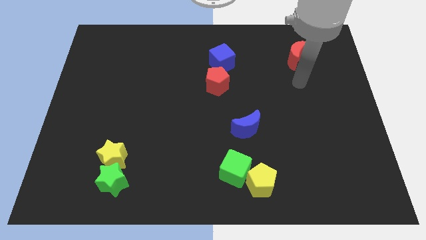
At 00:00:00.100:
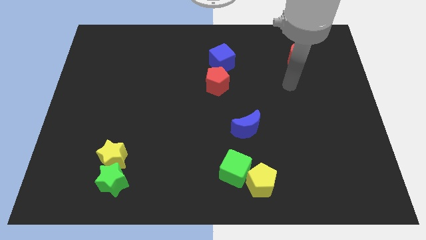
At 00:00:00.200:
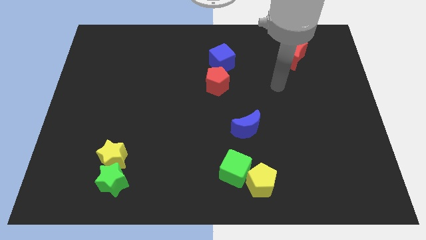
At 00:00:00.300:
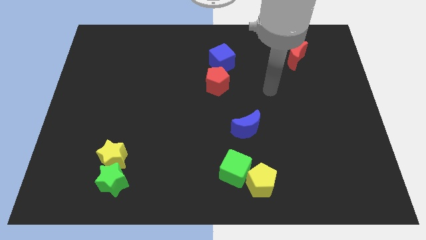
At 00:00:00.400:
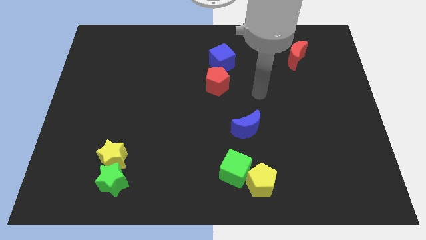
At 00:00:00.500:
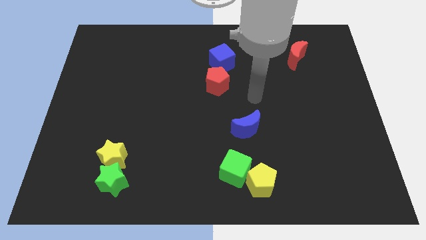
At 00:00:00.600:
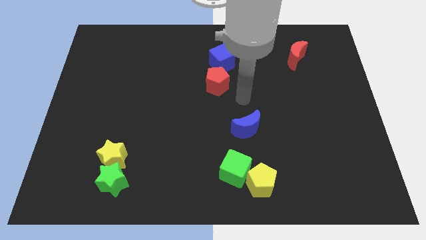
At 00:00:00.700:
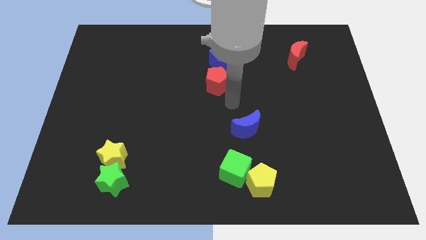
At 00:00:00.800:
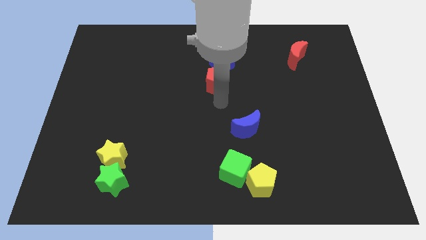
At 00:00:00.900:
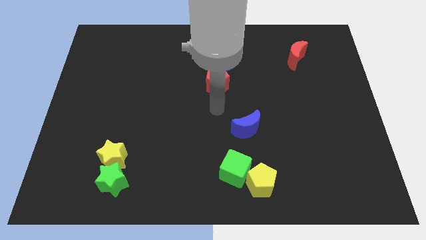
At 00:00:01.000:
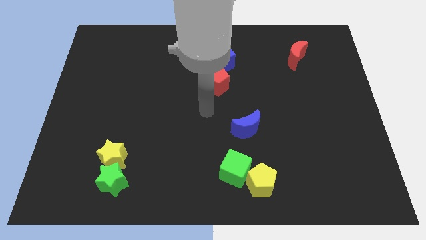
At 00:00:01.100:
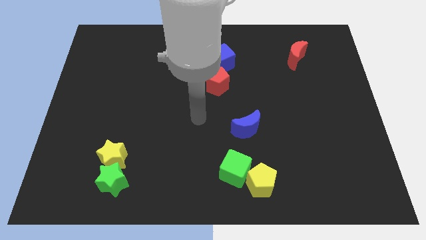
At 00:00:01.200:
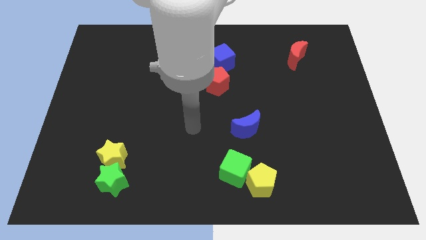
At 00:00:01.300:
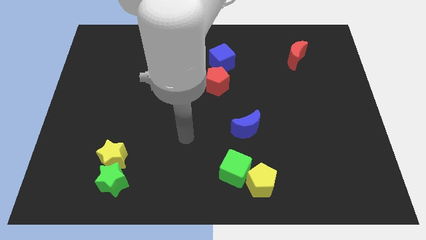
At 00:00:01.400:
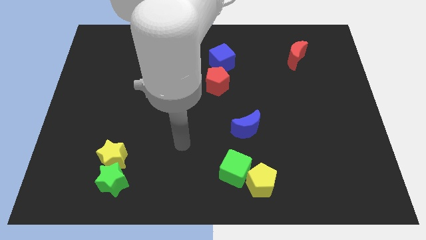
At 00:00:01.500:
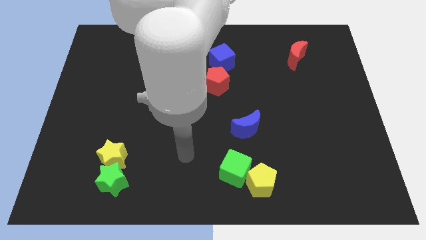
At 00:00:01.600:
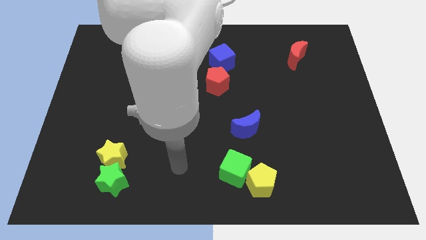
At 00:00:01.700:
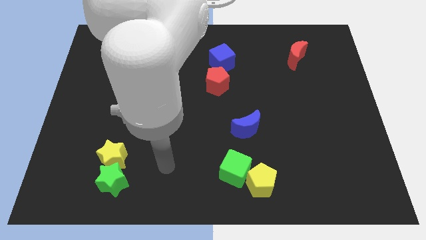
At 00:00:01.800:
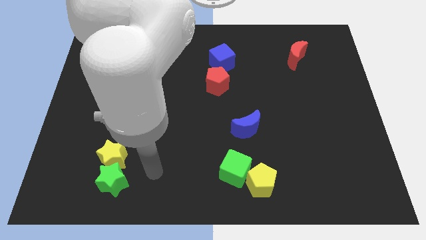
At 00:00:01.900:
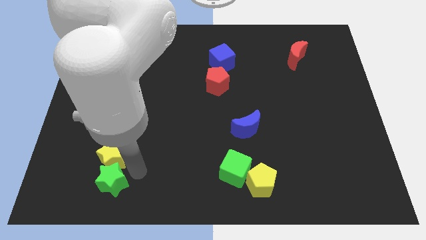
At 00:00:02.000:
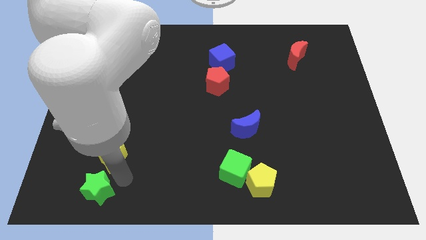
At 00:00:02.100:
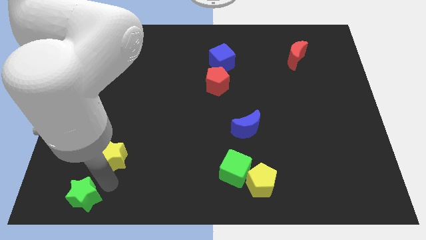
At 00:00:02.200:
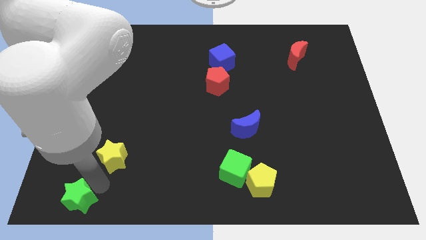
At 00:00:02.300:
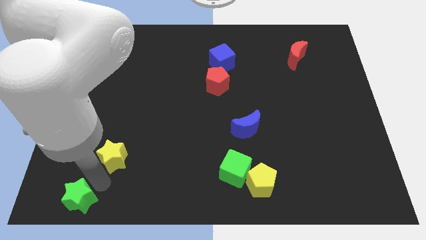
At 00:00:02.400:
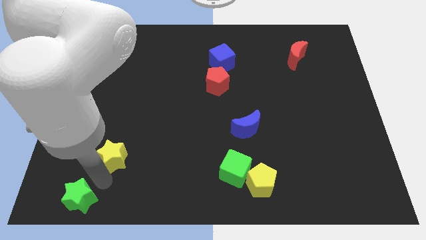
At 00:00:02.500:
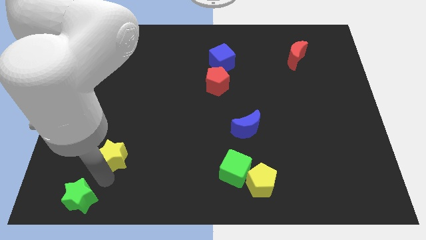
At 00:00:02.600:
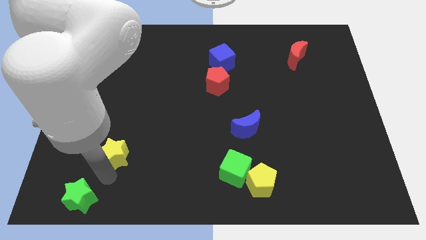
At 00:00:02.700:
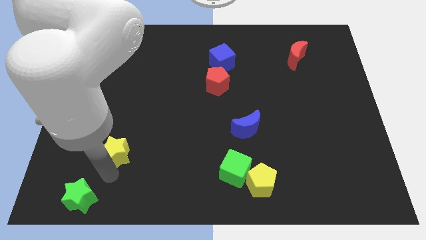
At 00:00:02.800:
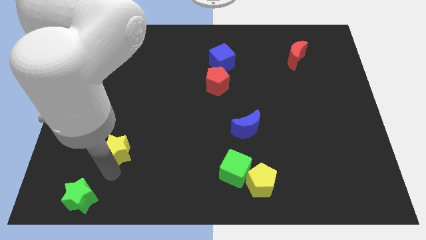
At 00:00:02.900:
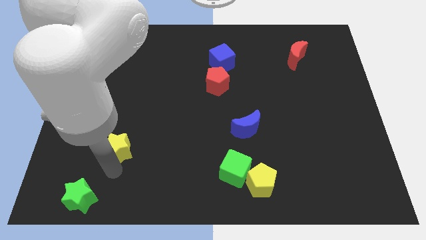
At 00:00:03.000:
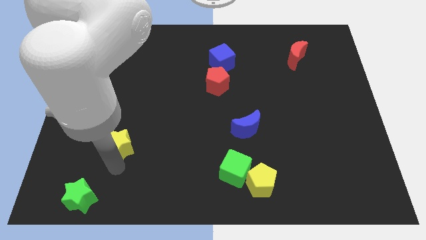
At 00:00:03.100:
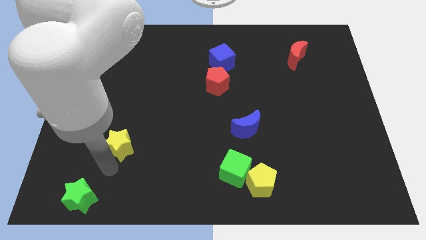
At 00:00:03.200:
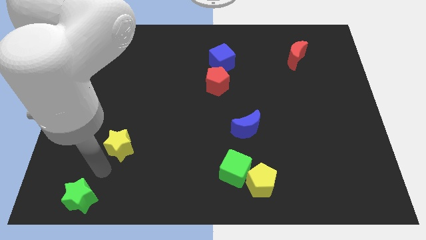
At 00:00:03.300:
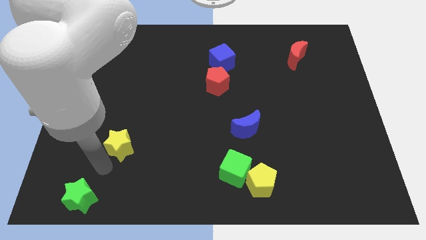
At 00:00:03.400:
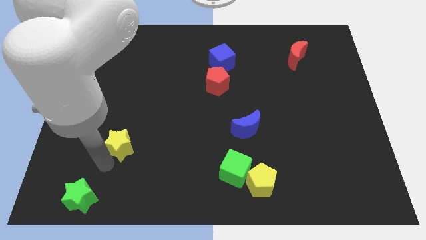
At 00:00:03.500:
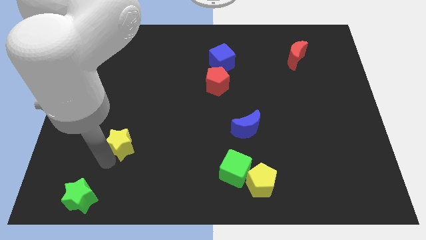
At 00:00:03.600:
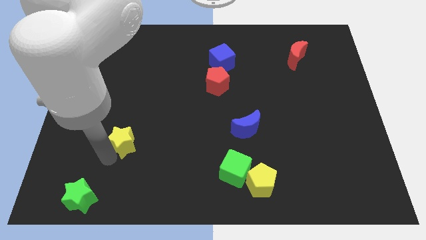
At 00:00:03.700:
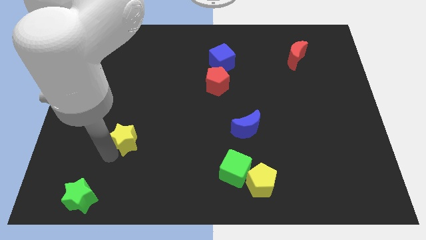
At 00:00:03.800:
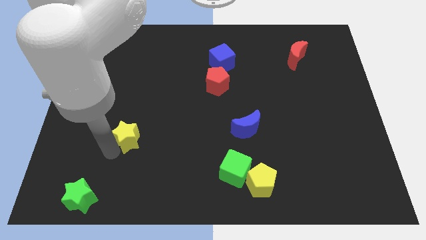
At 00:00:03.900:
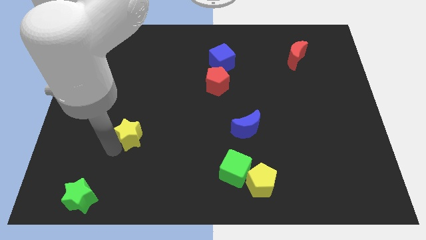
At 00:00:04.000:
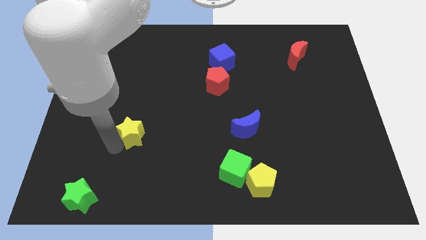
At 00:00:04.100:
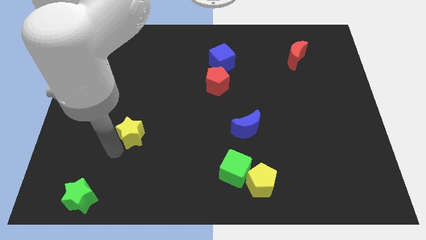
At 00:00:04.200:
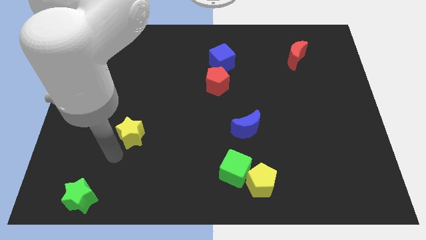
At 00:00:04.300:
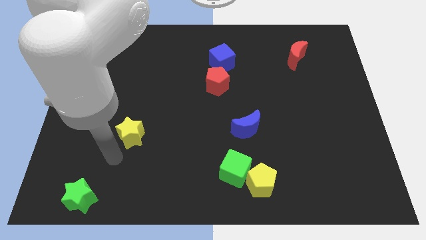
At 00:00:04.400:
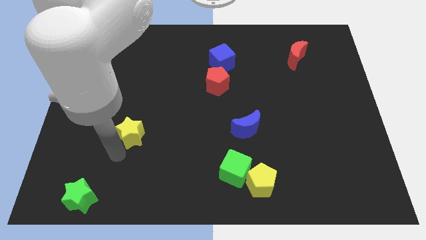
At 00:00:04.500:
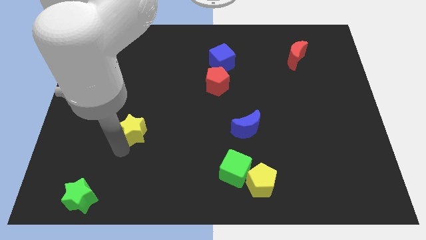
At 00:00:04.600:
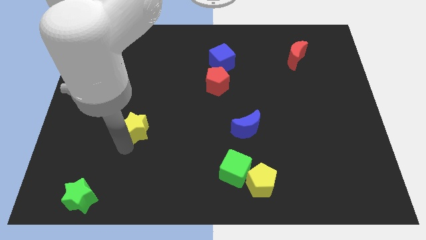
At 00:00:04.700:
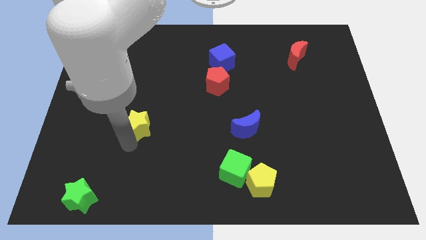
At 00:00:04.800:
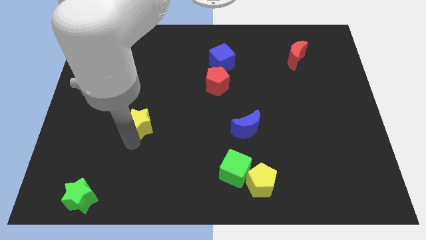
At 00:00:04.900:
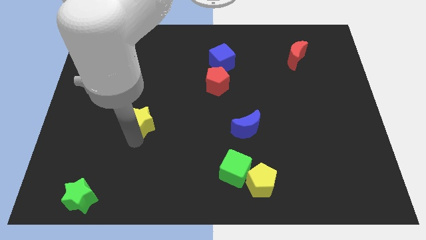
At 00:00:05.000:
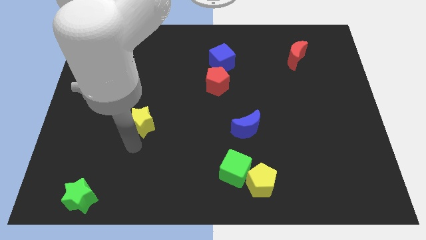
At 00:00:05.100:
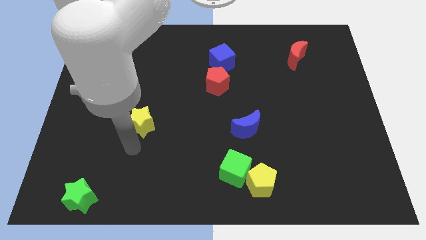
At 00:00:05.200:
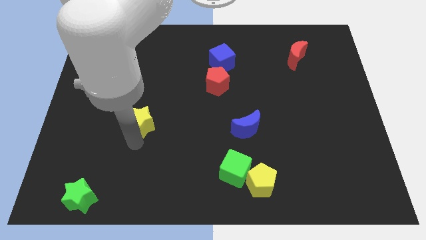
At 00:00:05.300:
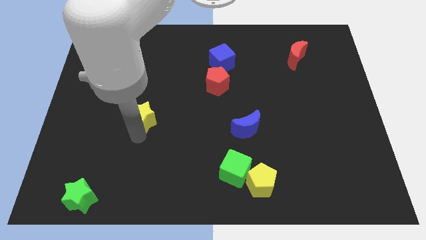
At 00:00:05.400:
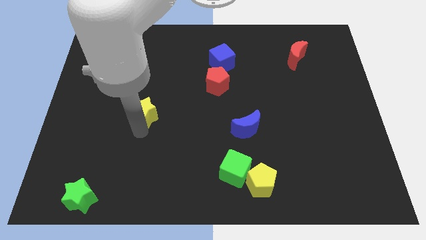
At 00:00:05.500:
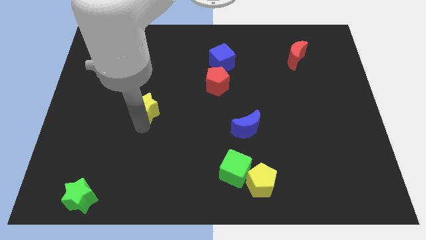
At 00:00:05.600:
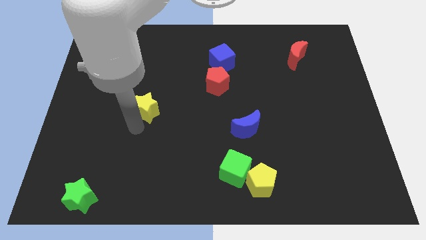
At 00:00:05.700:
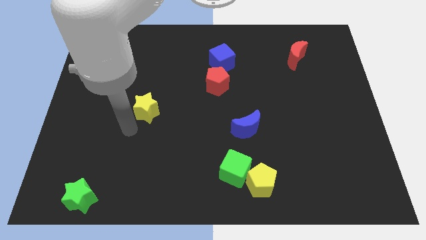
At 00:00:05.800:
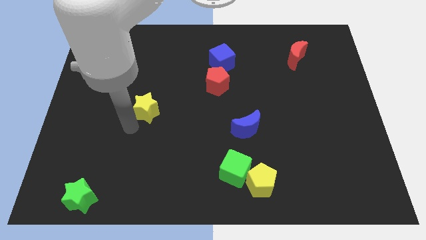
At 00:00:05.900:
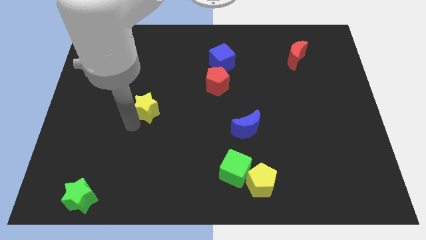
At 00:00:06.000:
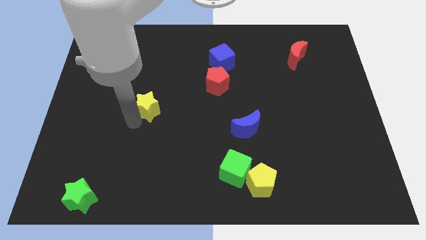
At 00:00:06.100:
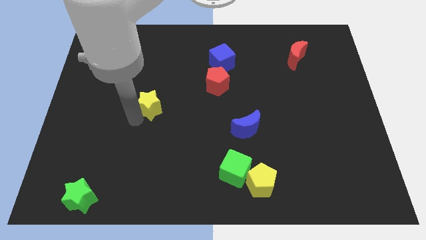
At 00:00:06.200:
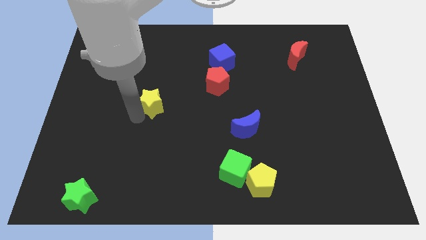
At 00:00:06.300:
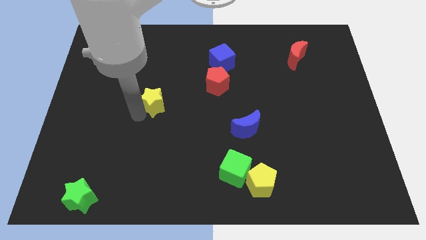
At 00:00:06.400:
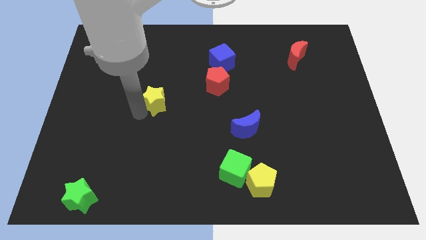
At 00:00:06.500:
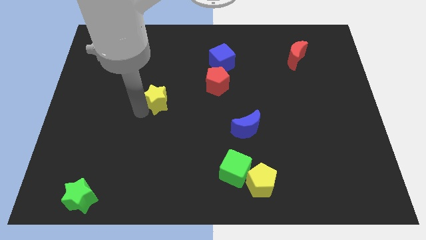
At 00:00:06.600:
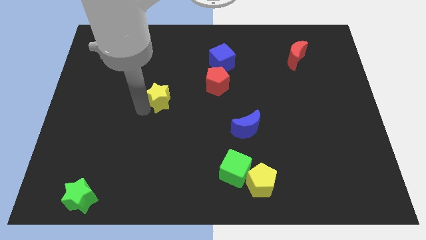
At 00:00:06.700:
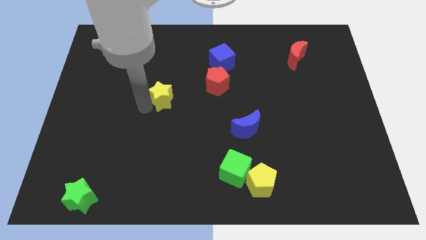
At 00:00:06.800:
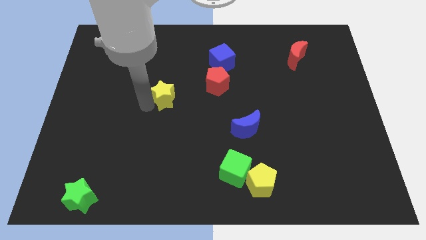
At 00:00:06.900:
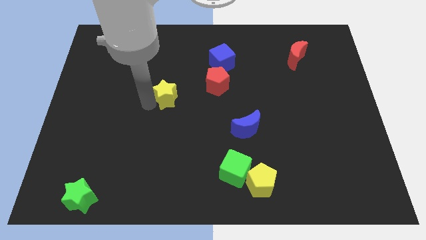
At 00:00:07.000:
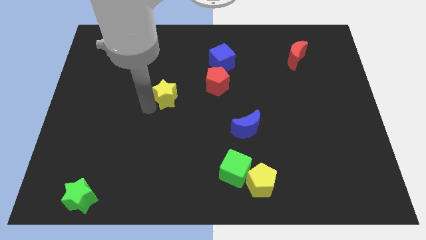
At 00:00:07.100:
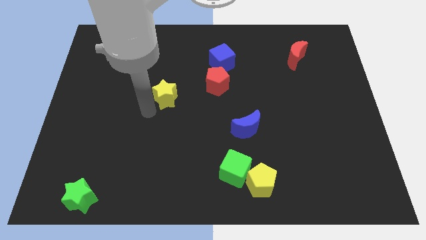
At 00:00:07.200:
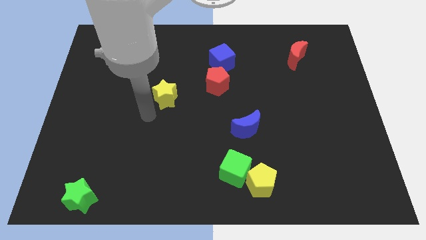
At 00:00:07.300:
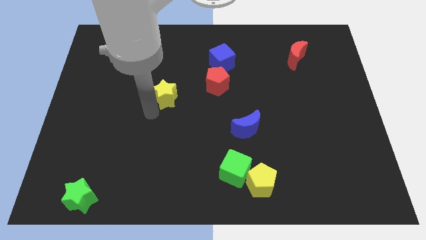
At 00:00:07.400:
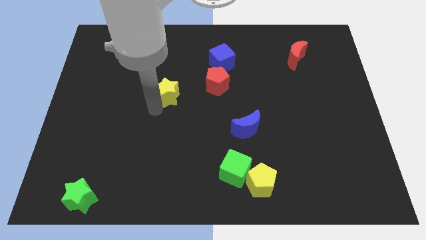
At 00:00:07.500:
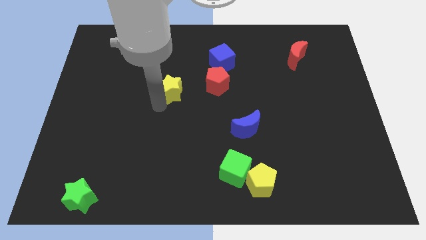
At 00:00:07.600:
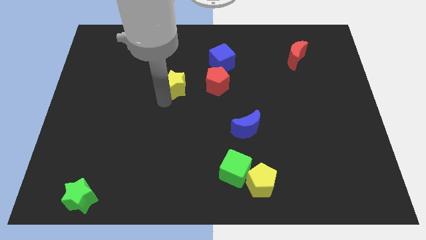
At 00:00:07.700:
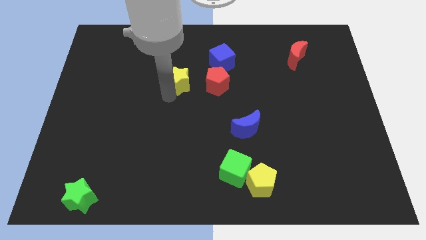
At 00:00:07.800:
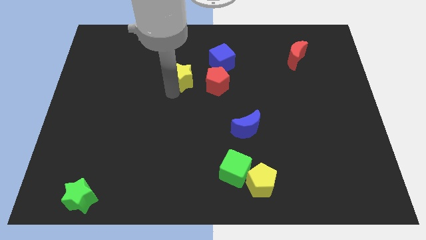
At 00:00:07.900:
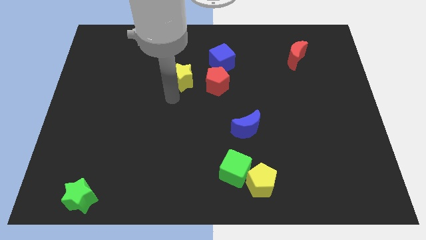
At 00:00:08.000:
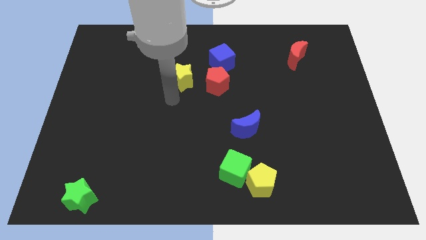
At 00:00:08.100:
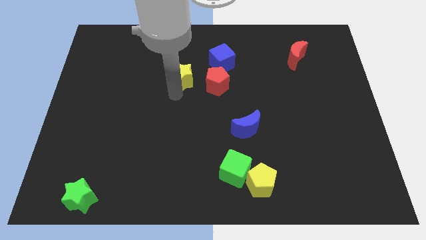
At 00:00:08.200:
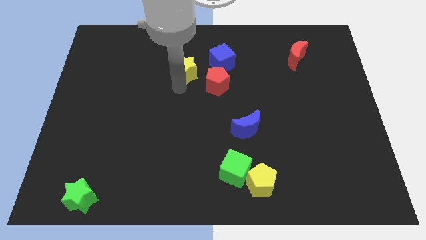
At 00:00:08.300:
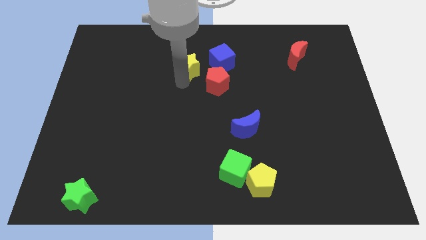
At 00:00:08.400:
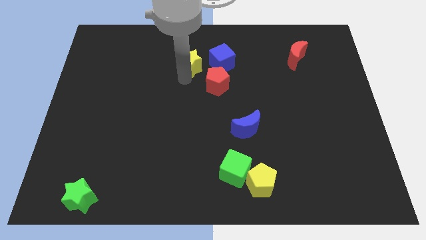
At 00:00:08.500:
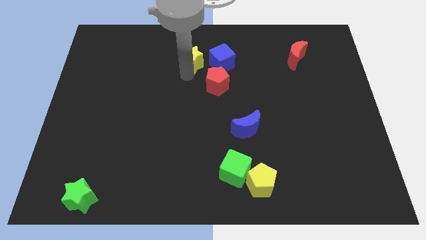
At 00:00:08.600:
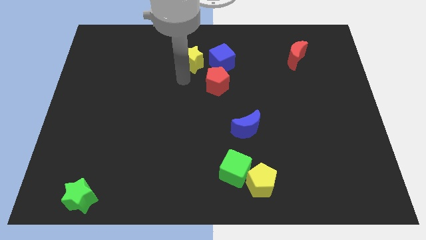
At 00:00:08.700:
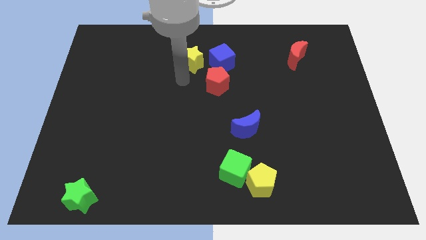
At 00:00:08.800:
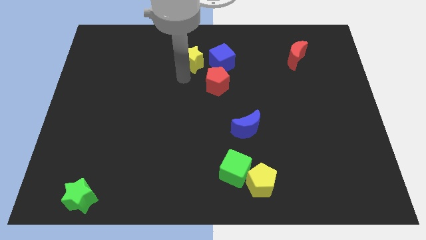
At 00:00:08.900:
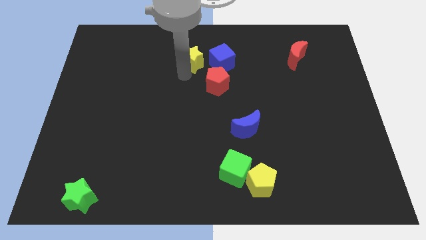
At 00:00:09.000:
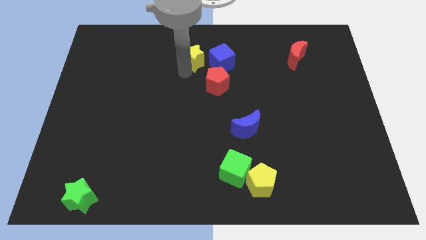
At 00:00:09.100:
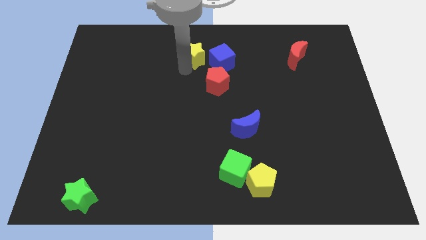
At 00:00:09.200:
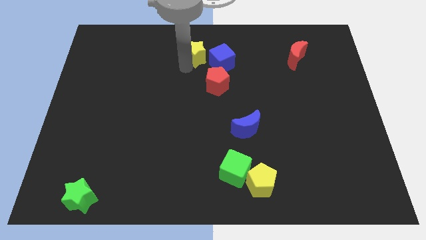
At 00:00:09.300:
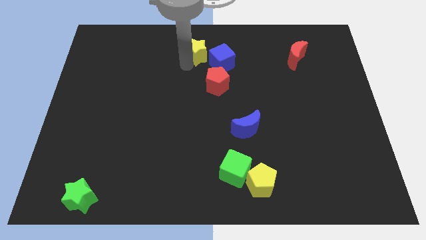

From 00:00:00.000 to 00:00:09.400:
put the yellow star to the top side
